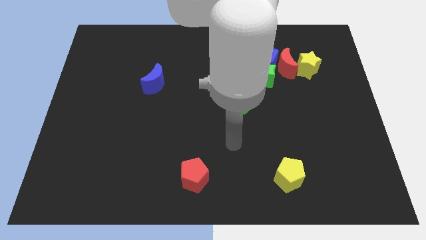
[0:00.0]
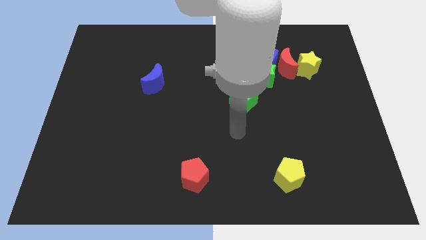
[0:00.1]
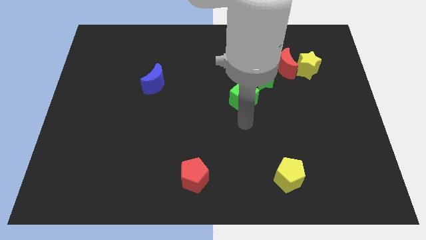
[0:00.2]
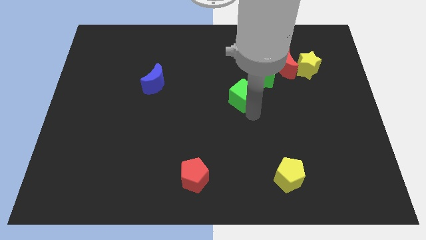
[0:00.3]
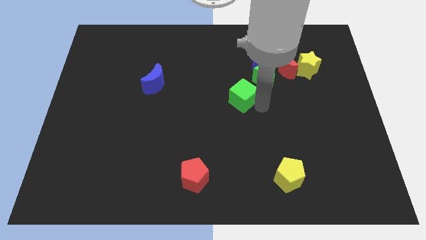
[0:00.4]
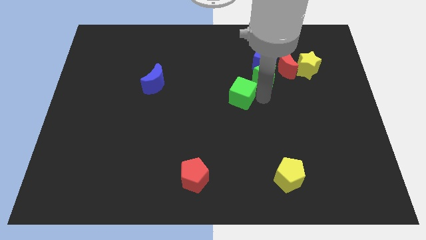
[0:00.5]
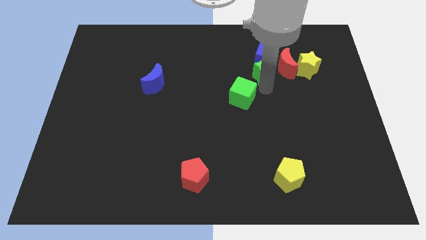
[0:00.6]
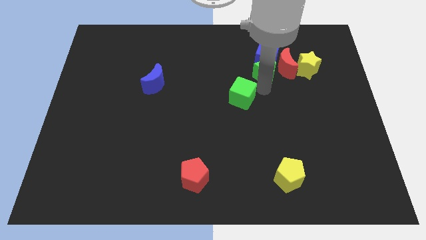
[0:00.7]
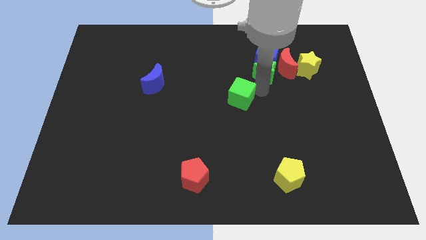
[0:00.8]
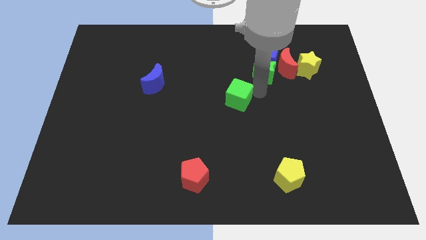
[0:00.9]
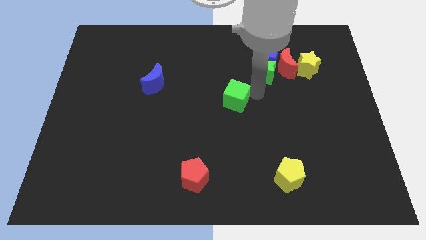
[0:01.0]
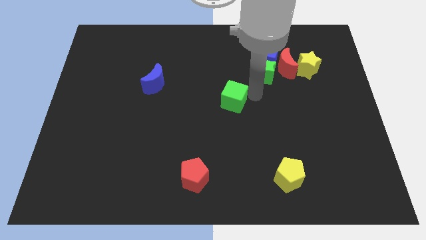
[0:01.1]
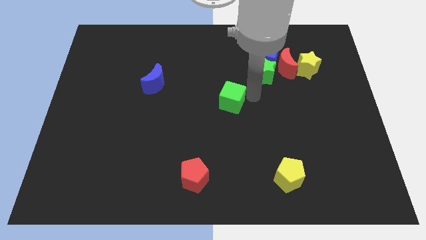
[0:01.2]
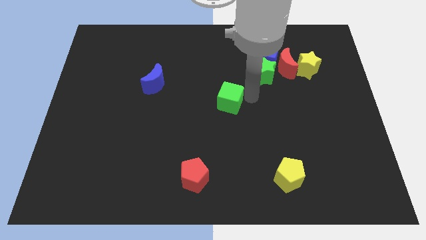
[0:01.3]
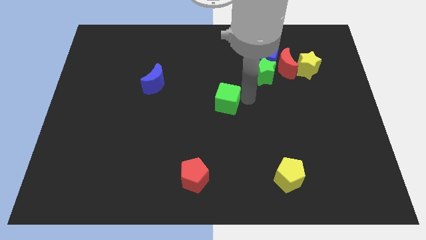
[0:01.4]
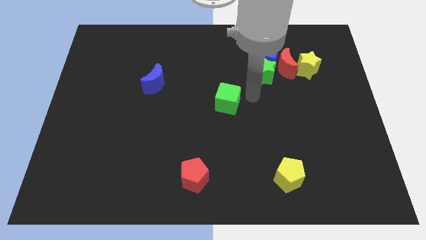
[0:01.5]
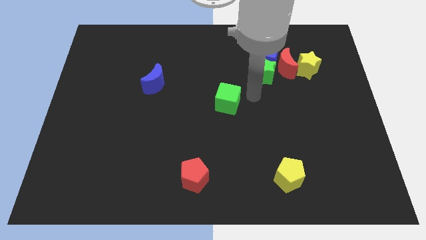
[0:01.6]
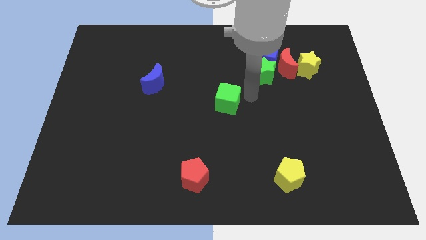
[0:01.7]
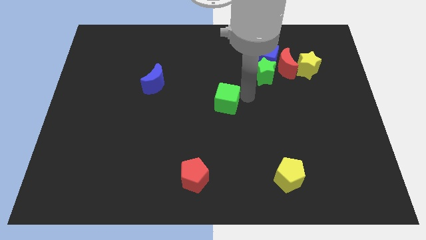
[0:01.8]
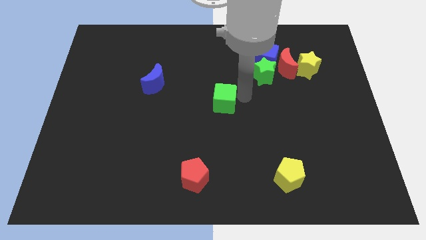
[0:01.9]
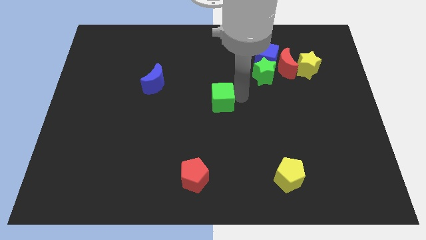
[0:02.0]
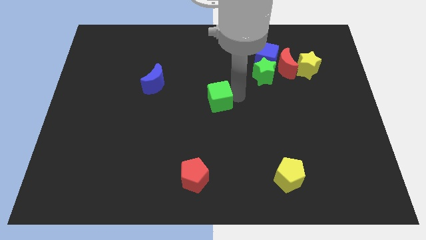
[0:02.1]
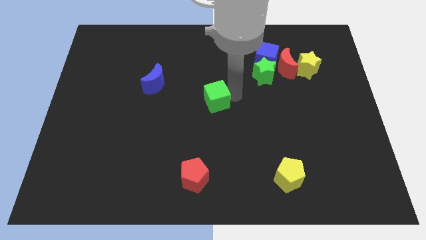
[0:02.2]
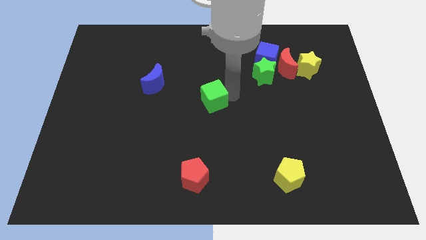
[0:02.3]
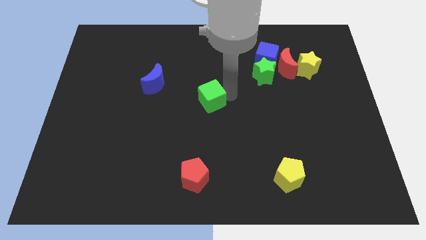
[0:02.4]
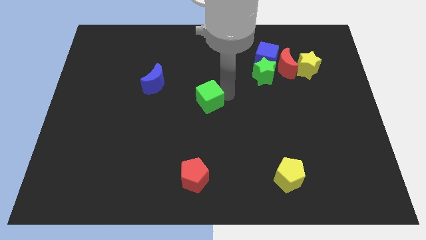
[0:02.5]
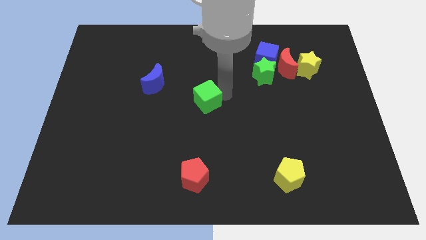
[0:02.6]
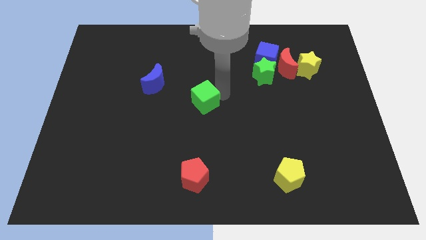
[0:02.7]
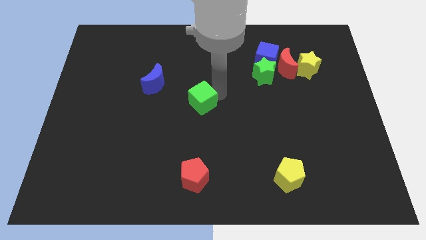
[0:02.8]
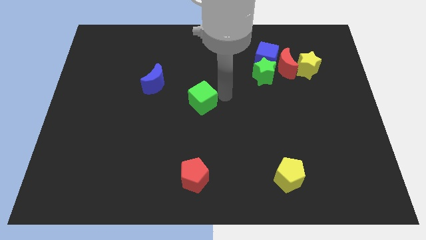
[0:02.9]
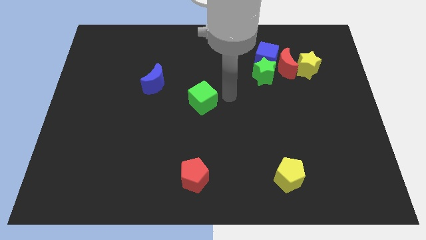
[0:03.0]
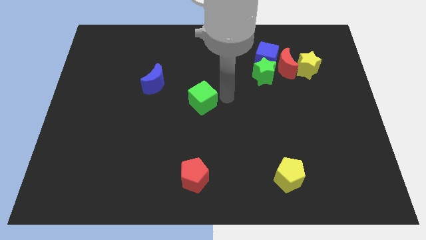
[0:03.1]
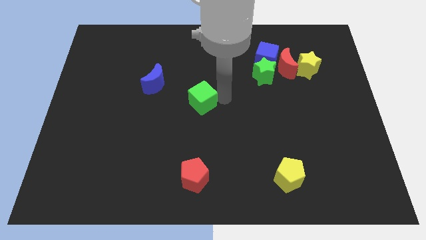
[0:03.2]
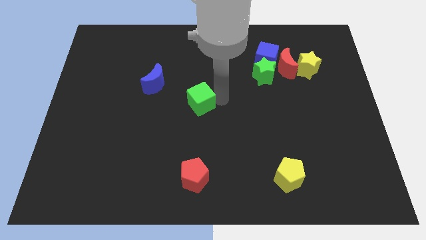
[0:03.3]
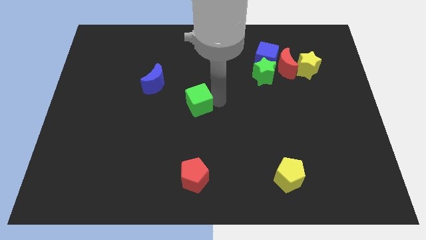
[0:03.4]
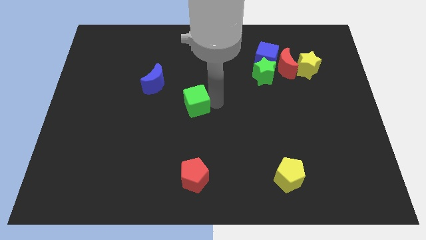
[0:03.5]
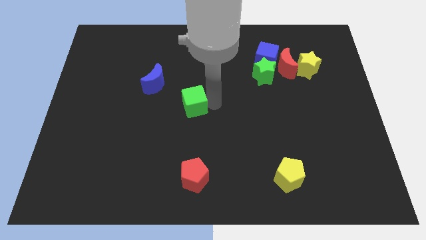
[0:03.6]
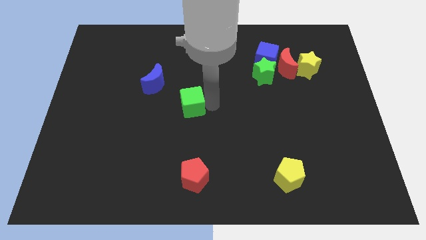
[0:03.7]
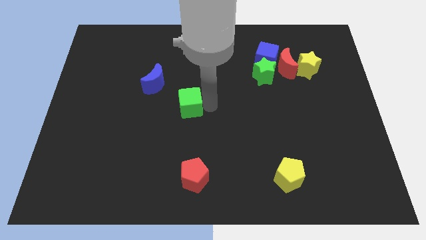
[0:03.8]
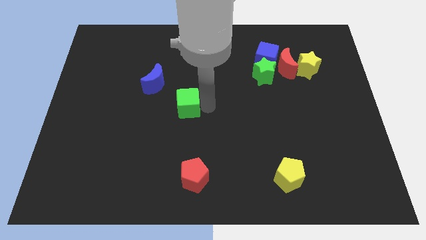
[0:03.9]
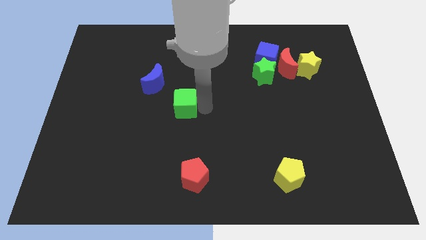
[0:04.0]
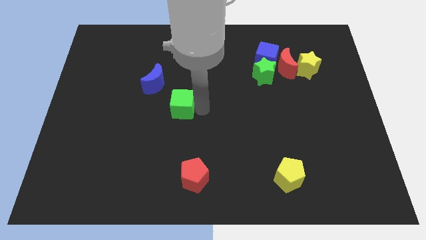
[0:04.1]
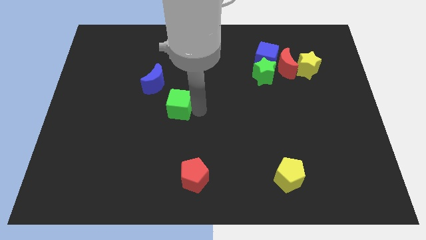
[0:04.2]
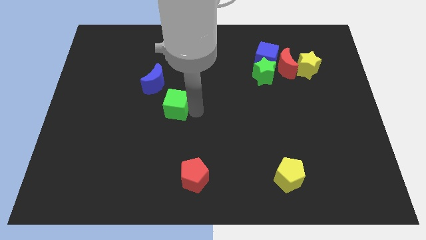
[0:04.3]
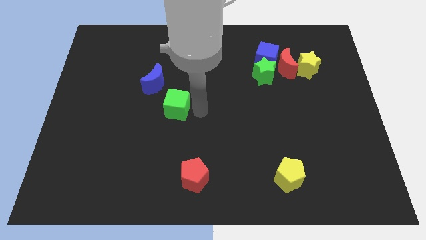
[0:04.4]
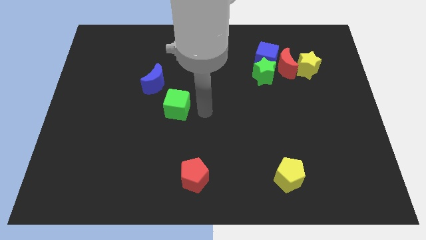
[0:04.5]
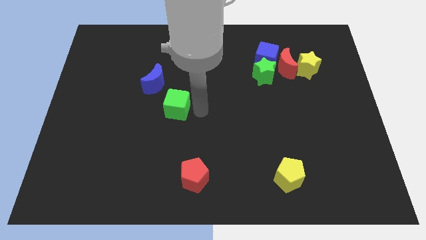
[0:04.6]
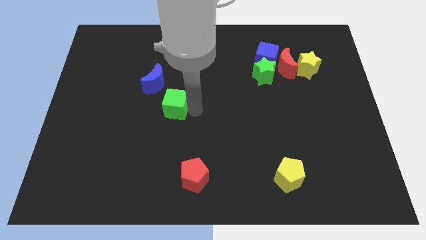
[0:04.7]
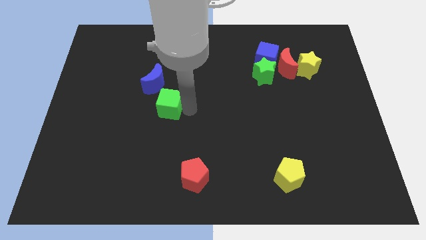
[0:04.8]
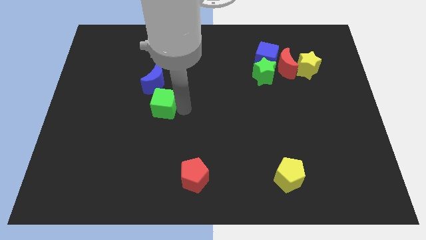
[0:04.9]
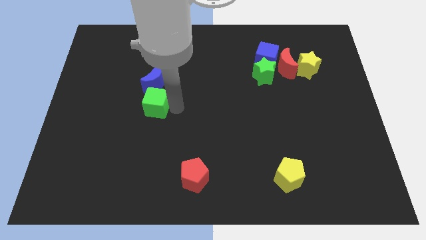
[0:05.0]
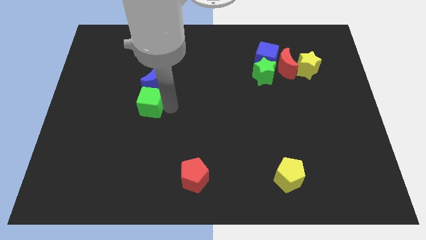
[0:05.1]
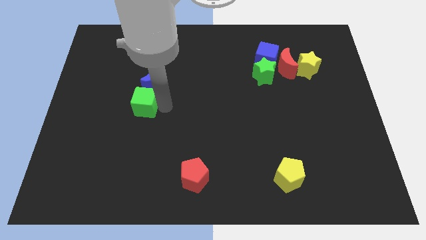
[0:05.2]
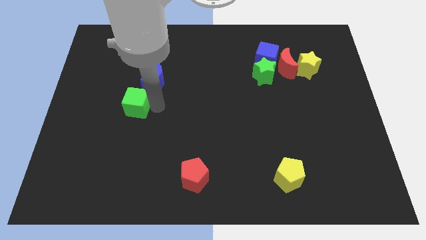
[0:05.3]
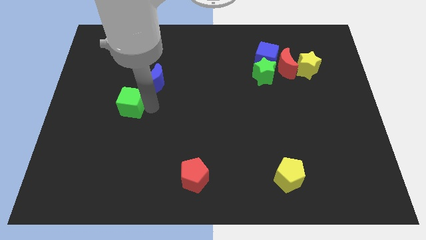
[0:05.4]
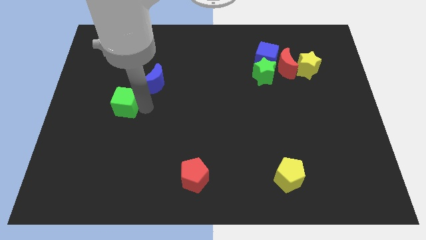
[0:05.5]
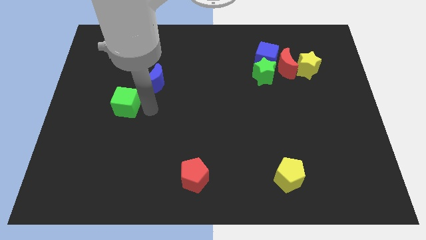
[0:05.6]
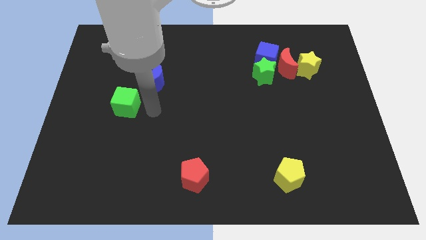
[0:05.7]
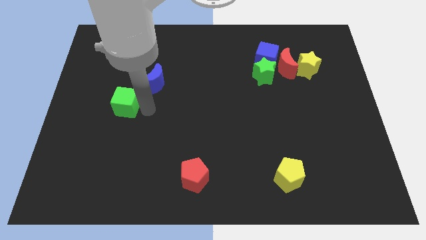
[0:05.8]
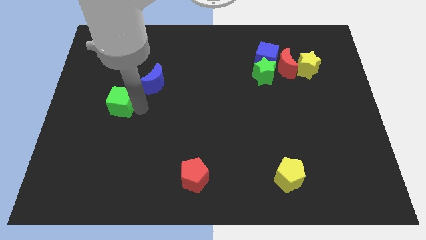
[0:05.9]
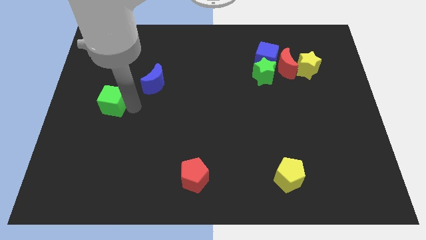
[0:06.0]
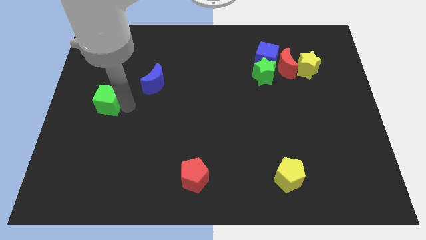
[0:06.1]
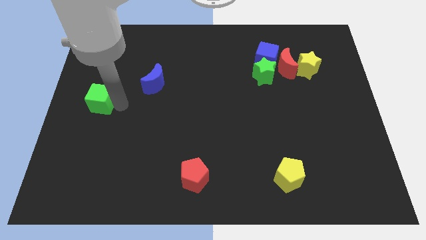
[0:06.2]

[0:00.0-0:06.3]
put the green cube to the left side of the board

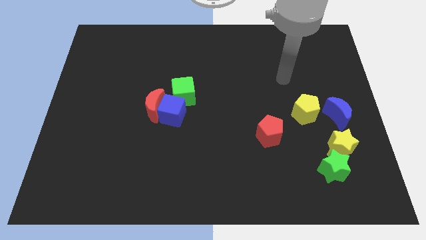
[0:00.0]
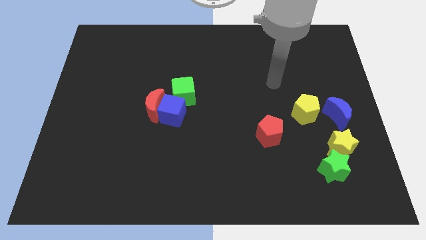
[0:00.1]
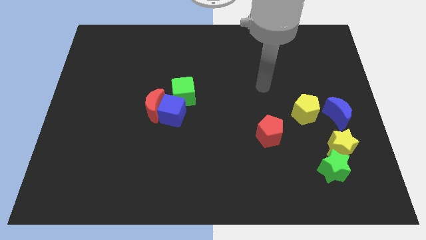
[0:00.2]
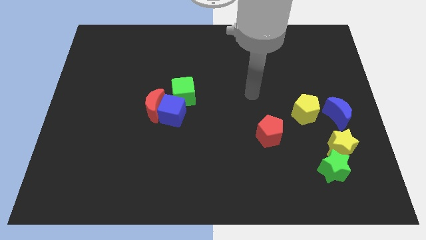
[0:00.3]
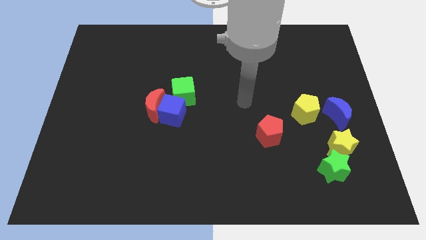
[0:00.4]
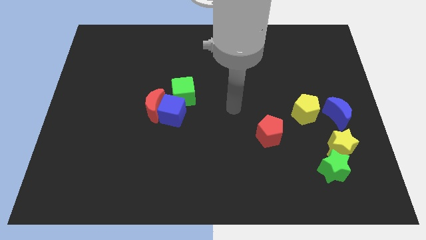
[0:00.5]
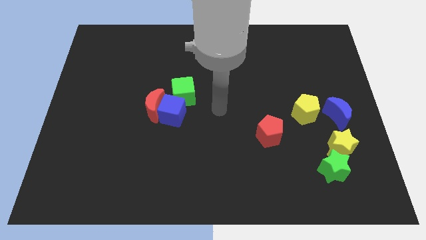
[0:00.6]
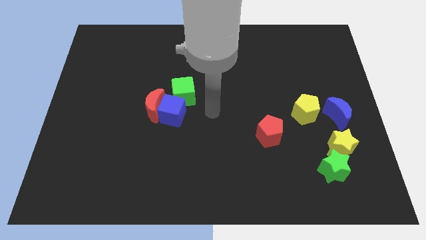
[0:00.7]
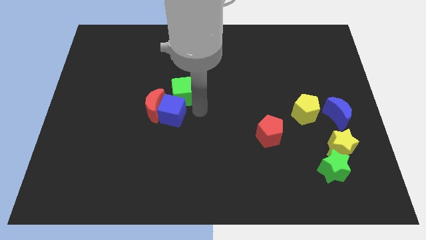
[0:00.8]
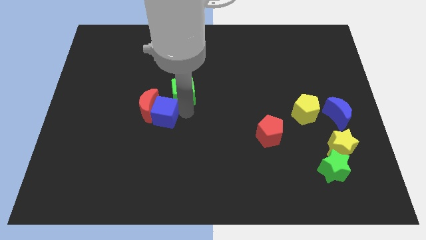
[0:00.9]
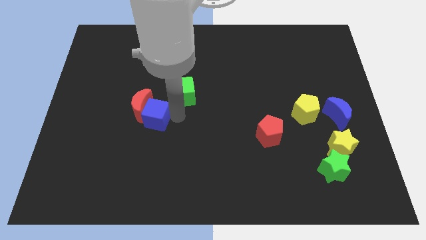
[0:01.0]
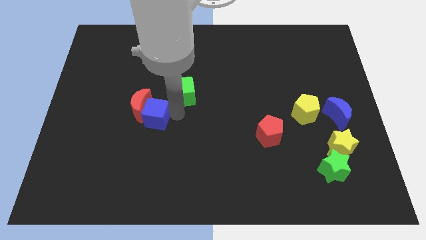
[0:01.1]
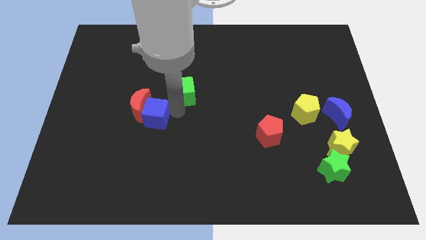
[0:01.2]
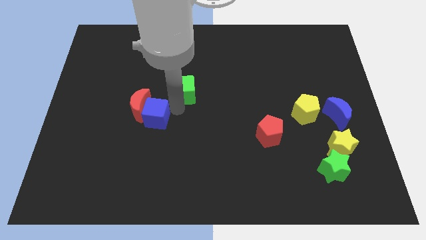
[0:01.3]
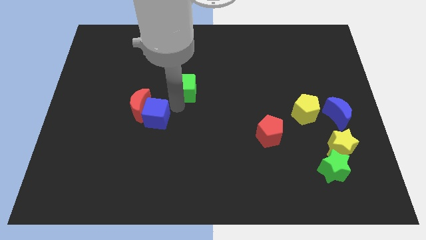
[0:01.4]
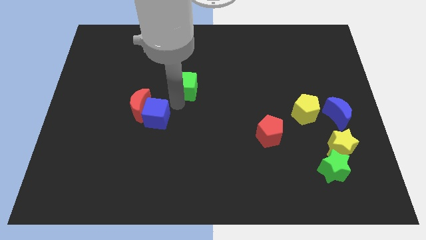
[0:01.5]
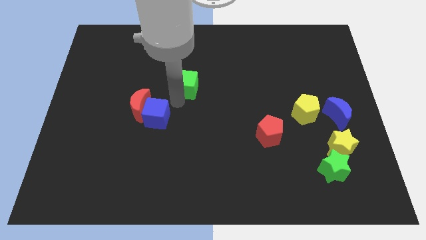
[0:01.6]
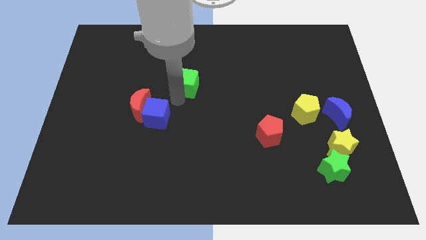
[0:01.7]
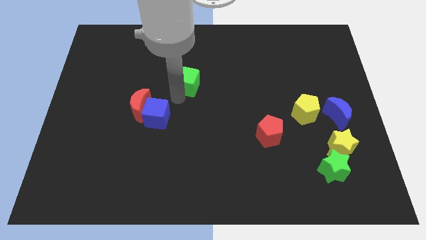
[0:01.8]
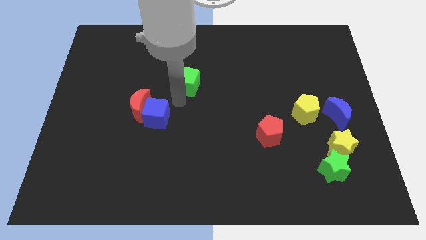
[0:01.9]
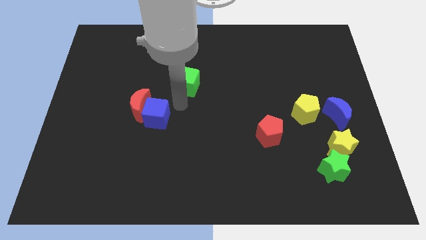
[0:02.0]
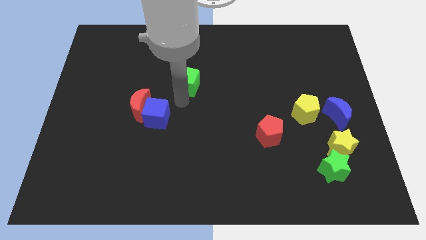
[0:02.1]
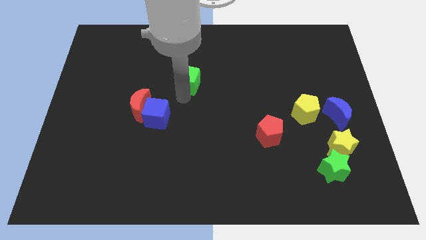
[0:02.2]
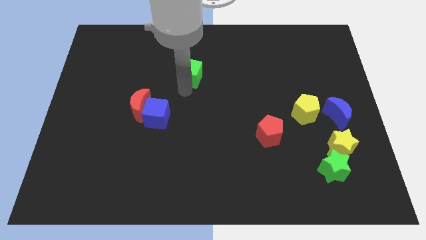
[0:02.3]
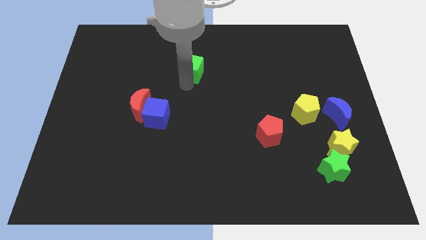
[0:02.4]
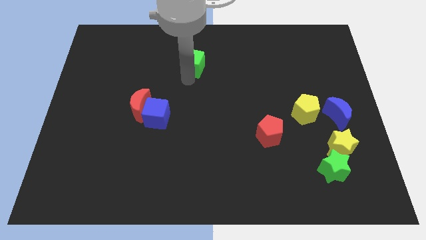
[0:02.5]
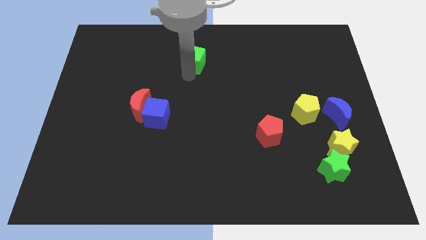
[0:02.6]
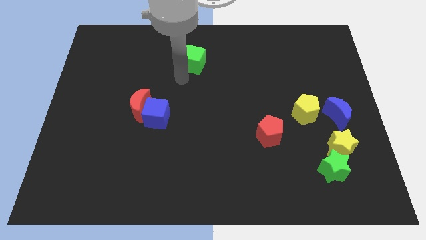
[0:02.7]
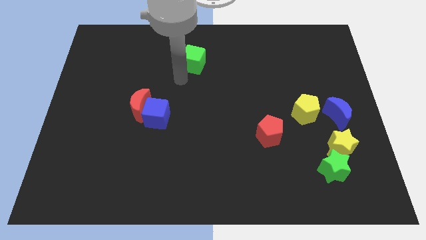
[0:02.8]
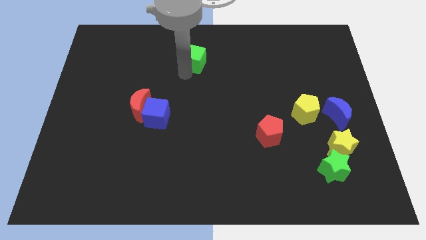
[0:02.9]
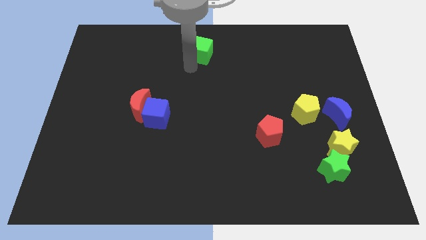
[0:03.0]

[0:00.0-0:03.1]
push the green cube to the top side
